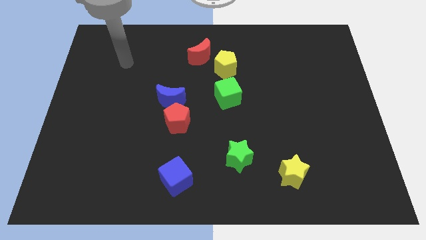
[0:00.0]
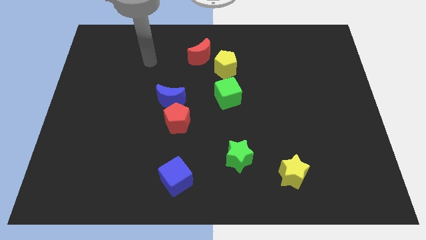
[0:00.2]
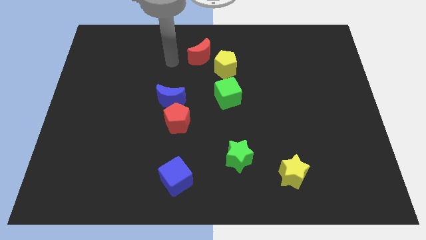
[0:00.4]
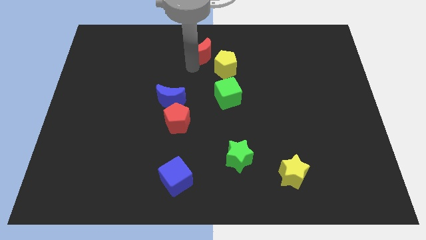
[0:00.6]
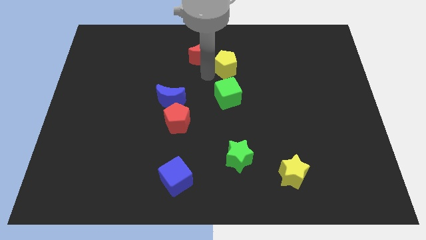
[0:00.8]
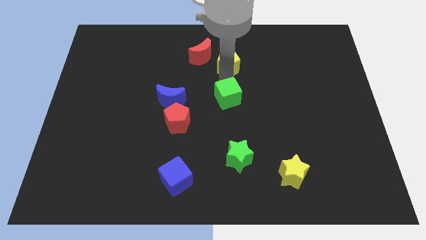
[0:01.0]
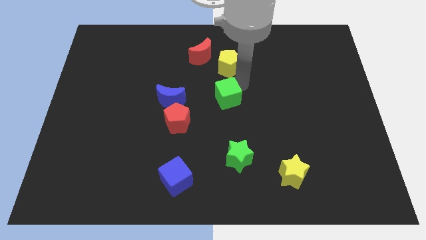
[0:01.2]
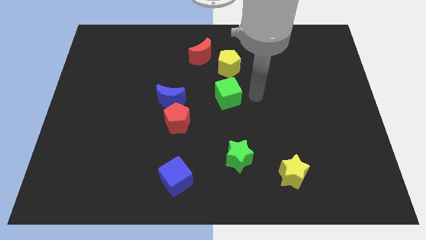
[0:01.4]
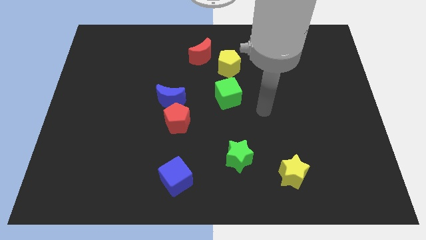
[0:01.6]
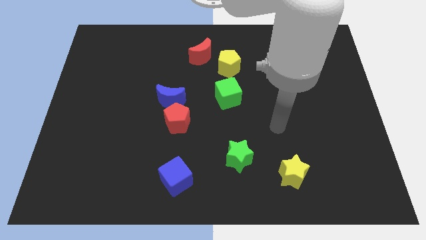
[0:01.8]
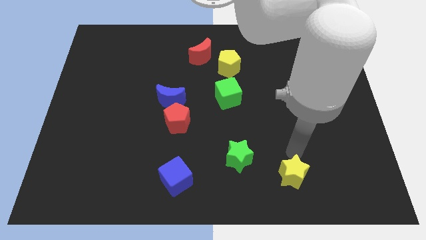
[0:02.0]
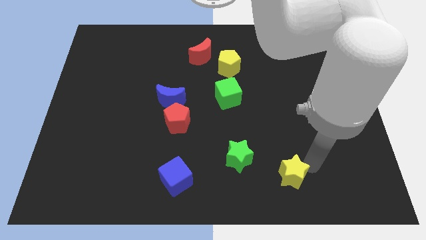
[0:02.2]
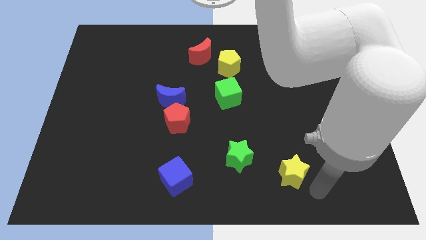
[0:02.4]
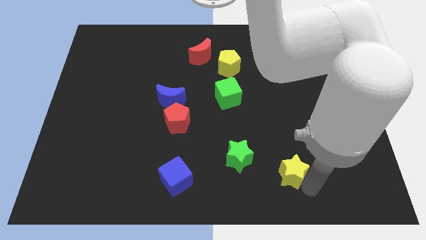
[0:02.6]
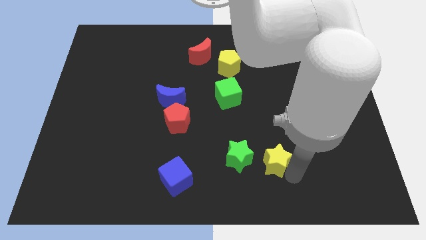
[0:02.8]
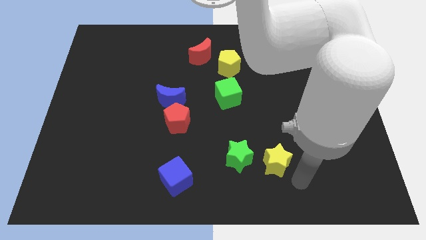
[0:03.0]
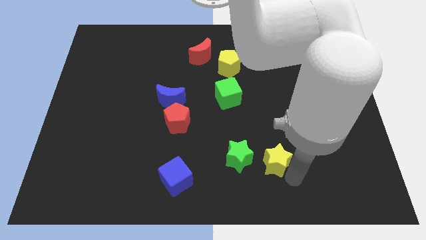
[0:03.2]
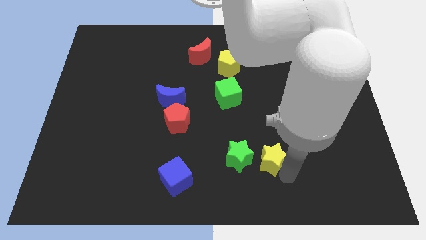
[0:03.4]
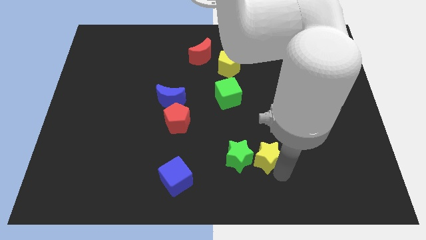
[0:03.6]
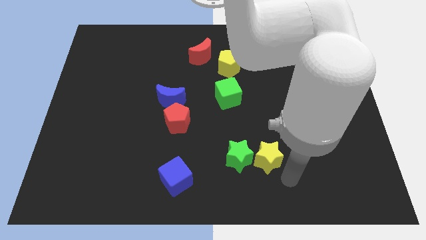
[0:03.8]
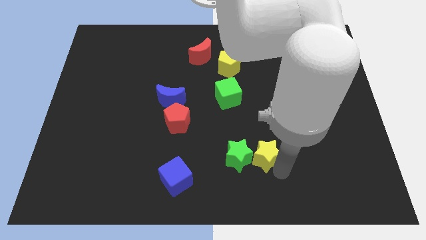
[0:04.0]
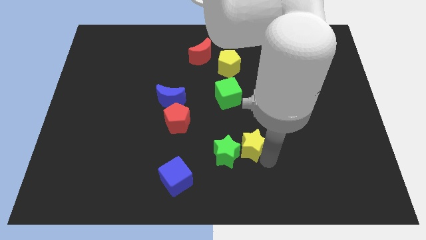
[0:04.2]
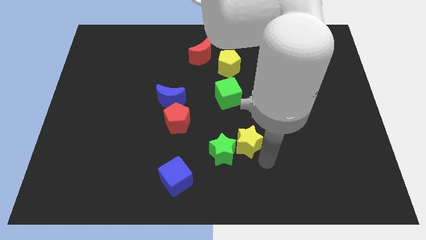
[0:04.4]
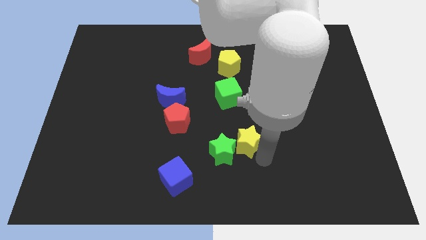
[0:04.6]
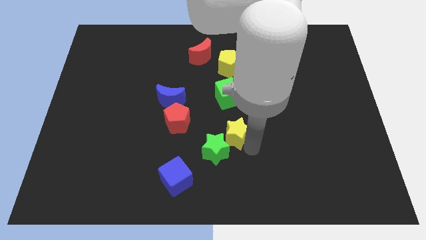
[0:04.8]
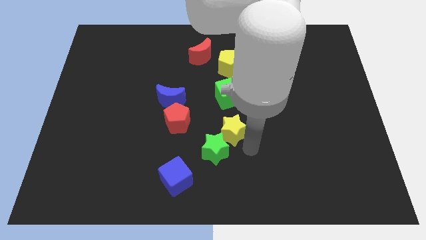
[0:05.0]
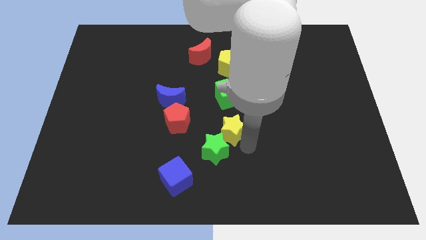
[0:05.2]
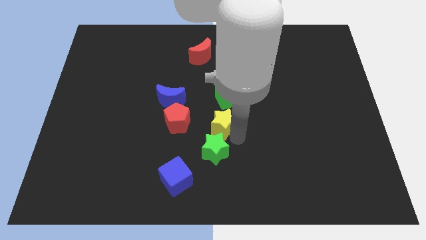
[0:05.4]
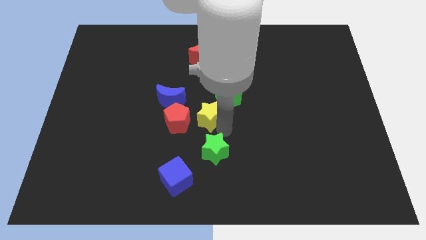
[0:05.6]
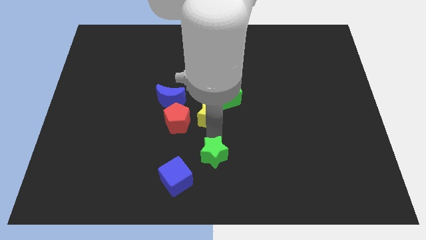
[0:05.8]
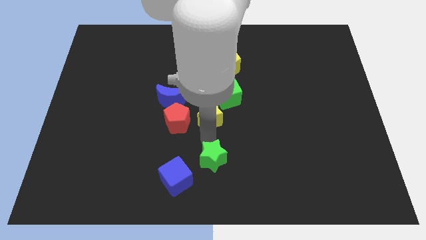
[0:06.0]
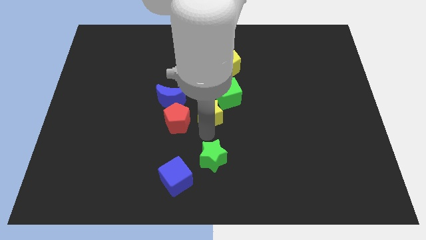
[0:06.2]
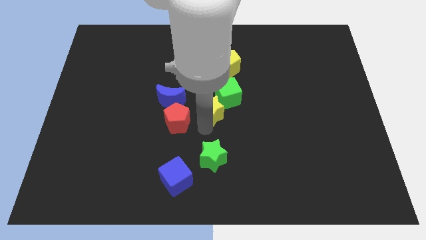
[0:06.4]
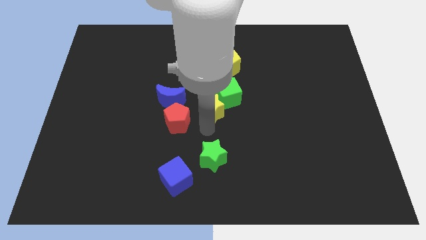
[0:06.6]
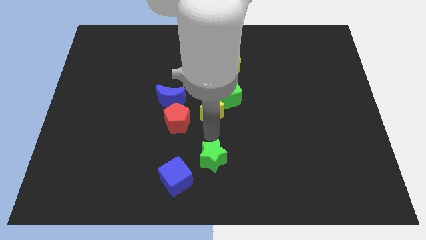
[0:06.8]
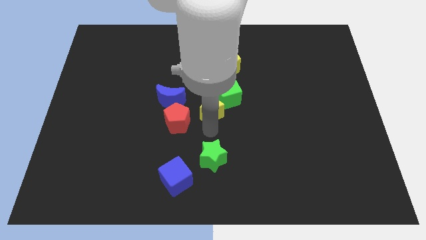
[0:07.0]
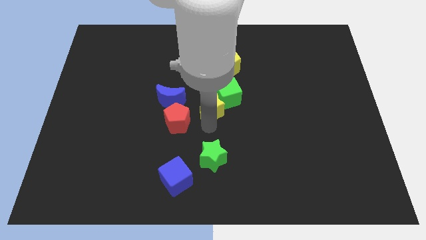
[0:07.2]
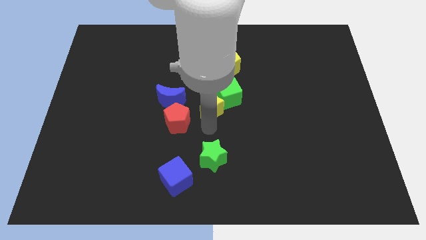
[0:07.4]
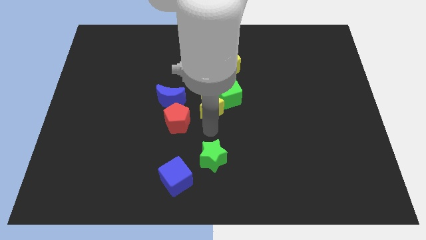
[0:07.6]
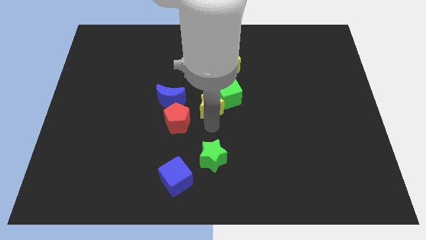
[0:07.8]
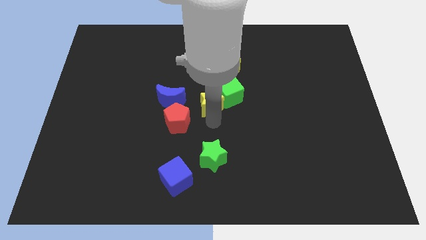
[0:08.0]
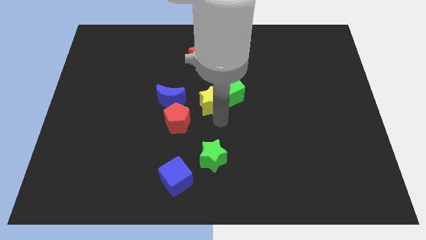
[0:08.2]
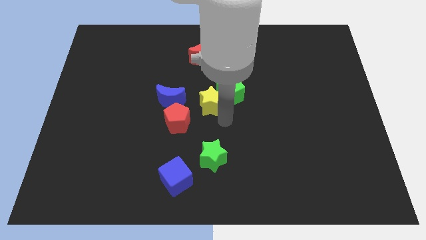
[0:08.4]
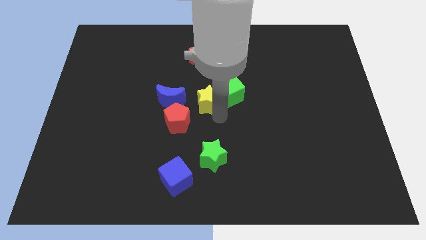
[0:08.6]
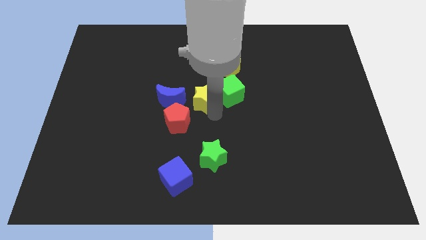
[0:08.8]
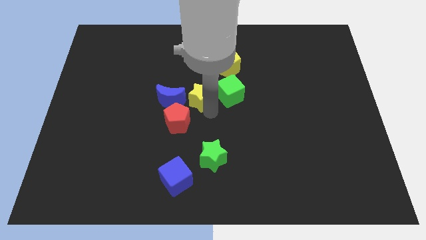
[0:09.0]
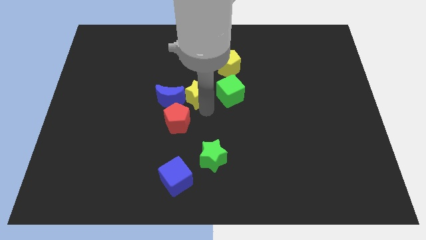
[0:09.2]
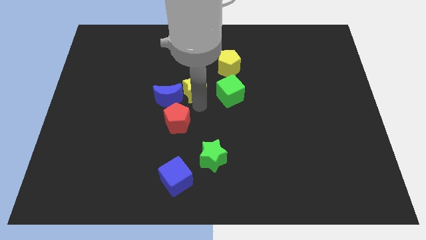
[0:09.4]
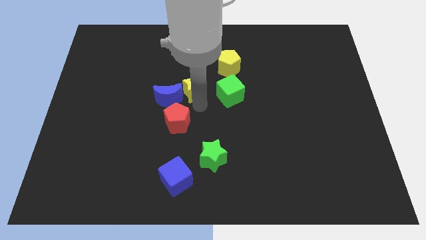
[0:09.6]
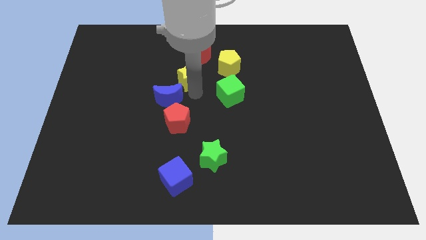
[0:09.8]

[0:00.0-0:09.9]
slide the yellow star just left of the yellow pentagon

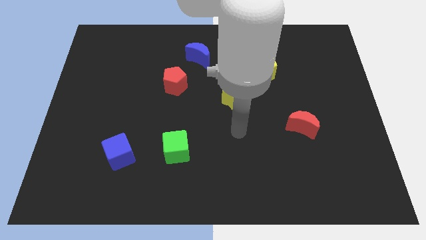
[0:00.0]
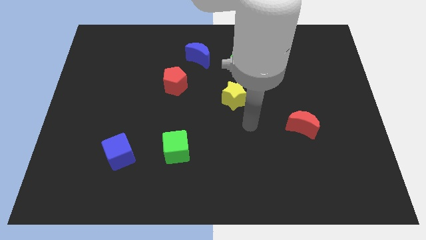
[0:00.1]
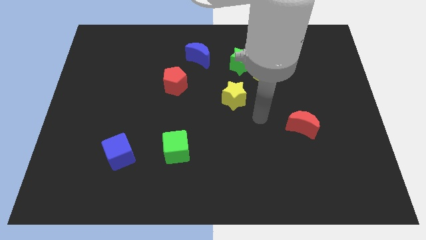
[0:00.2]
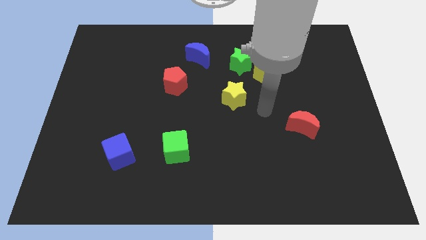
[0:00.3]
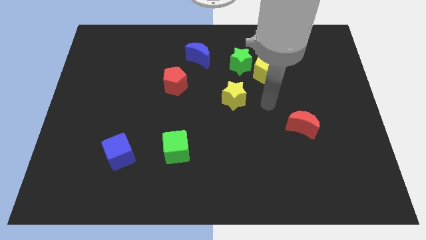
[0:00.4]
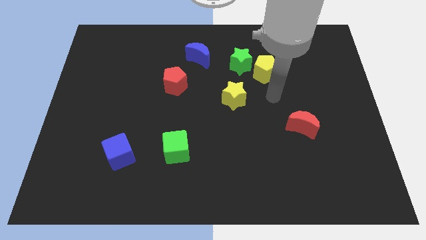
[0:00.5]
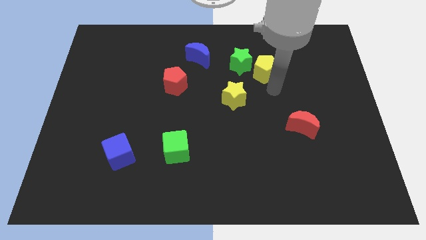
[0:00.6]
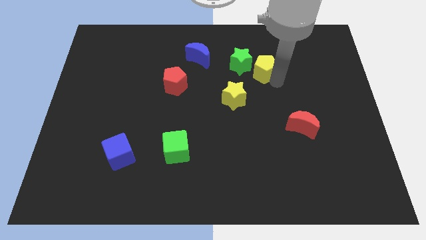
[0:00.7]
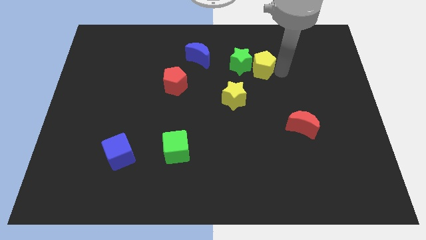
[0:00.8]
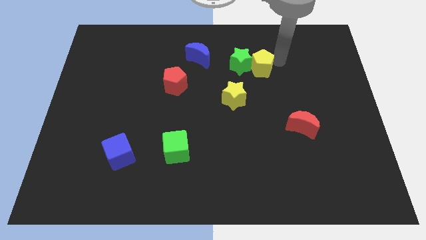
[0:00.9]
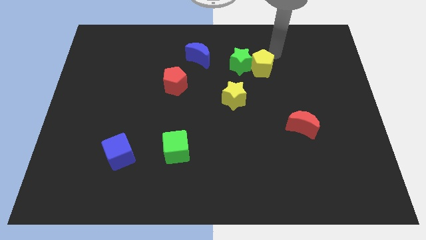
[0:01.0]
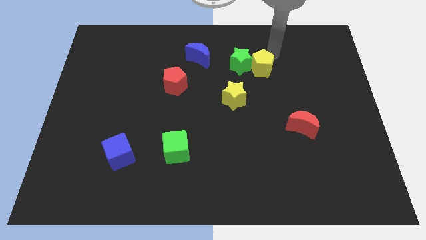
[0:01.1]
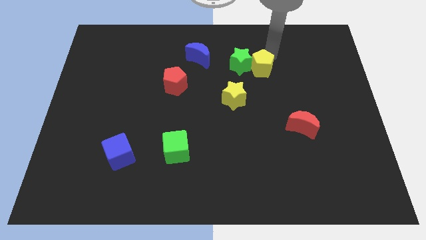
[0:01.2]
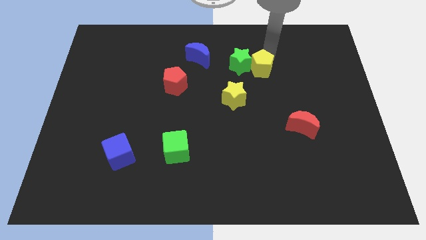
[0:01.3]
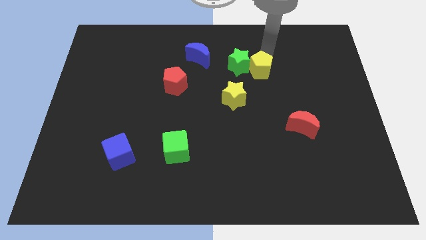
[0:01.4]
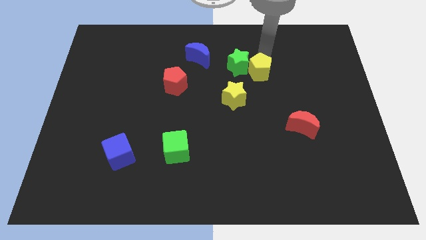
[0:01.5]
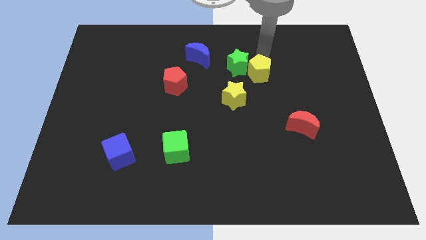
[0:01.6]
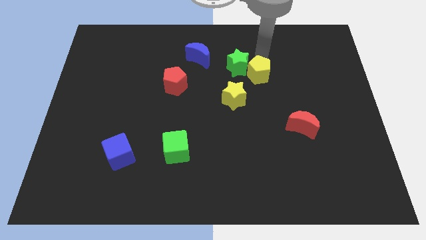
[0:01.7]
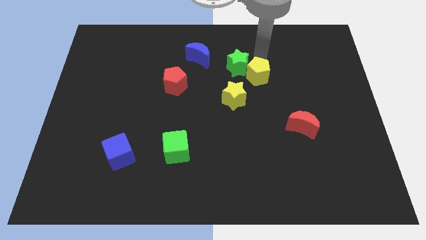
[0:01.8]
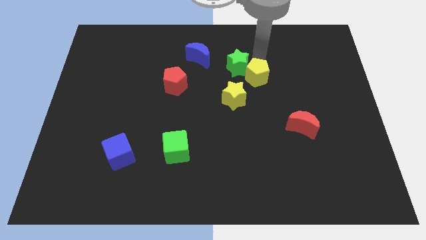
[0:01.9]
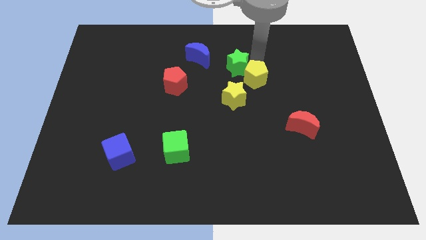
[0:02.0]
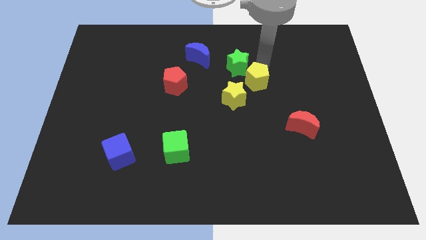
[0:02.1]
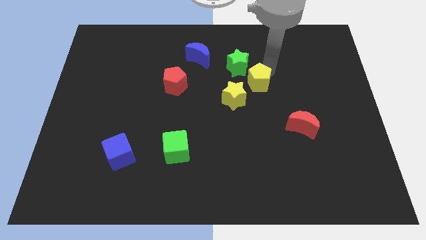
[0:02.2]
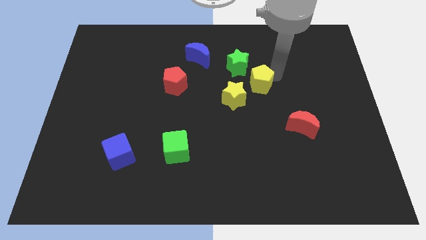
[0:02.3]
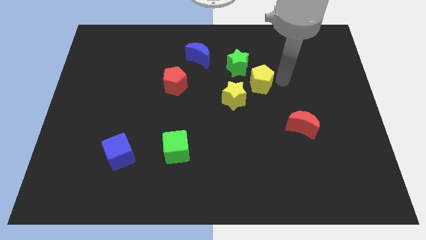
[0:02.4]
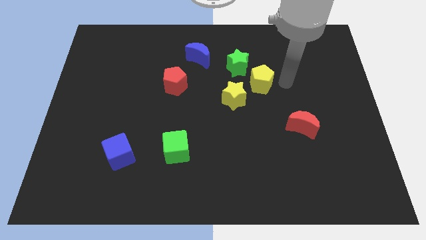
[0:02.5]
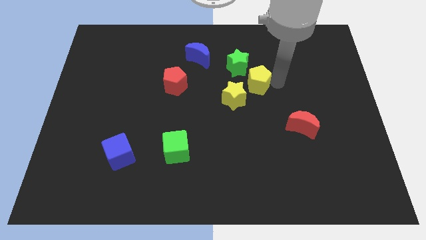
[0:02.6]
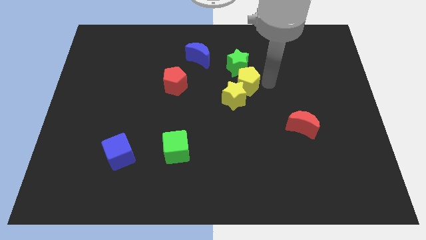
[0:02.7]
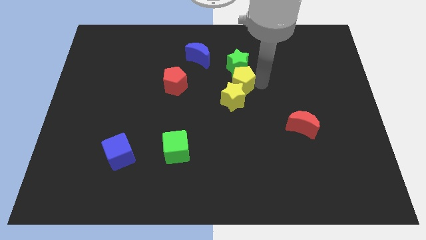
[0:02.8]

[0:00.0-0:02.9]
put the yellow pentagon diagonally down and to the left of the green star

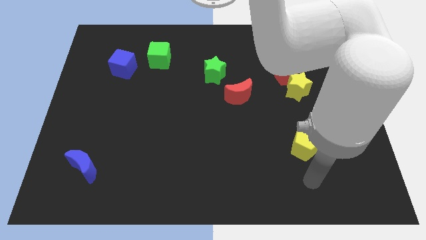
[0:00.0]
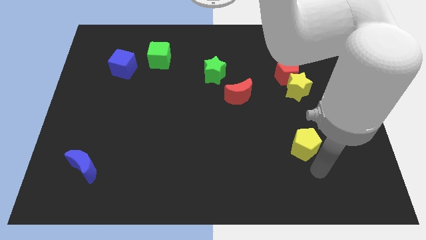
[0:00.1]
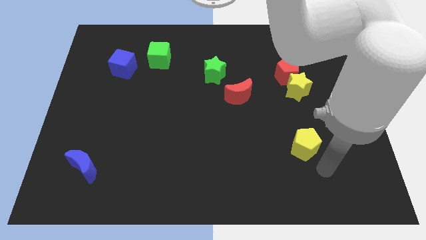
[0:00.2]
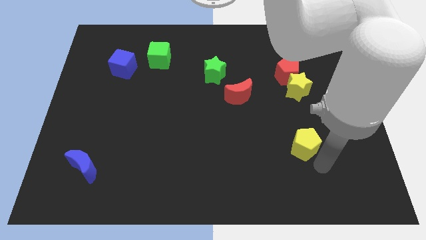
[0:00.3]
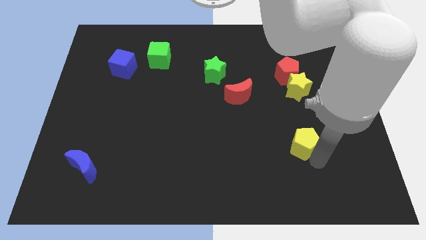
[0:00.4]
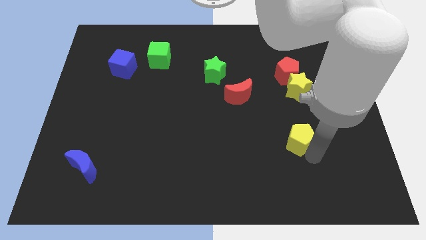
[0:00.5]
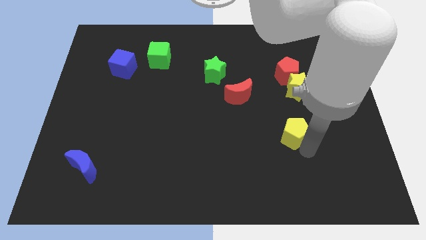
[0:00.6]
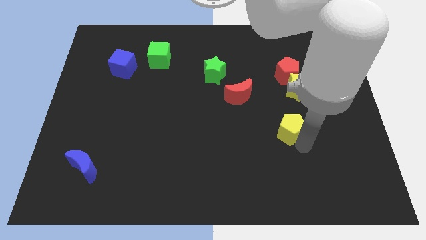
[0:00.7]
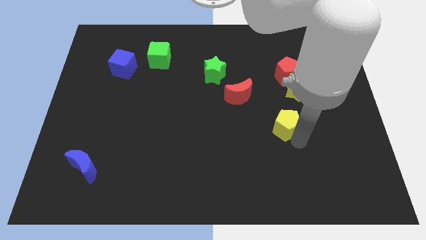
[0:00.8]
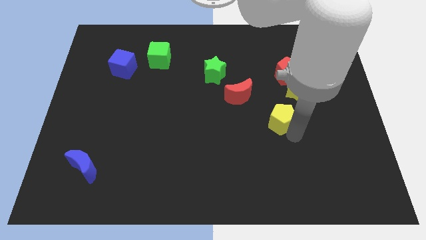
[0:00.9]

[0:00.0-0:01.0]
push the yellow pentagon to the bottom right of the red moon
